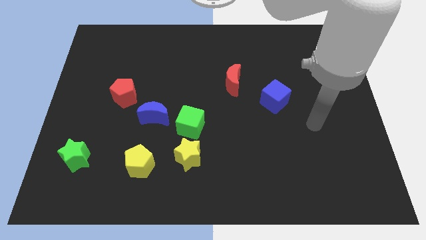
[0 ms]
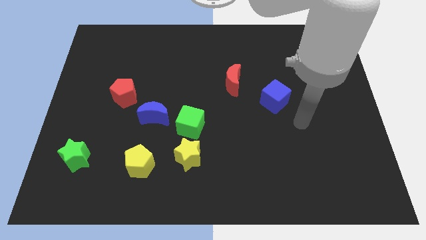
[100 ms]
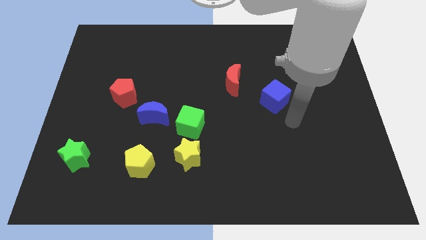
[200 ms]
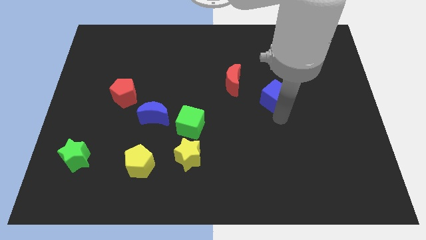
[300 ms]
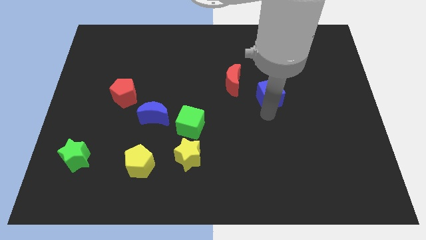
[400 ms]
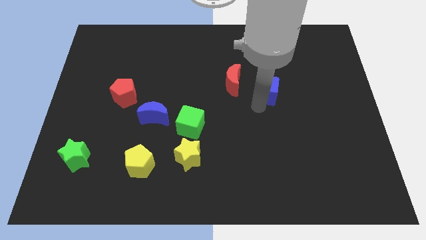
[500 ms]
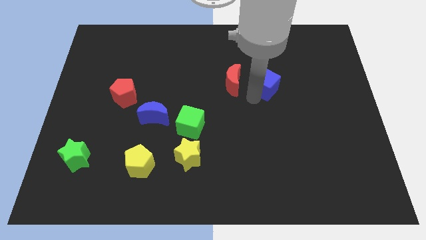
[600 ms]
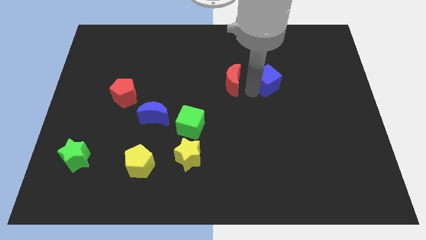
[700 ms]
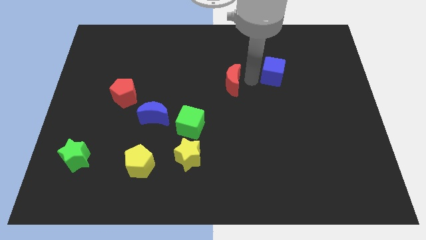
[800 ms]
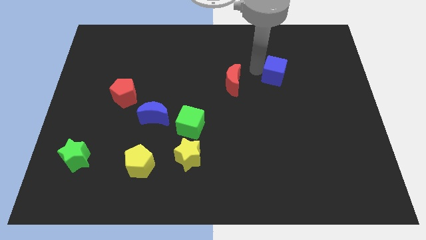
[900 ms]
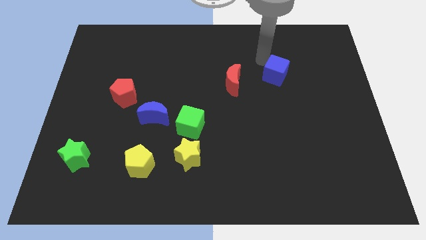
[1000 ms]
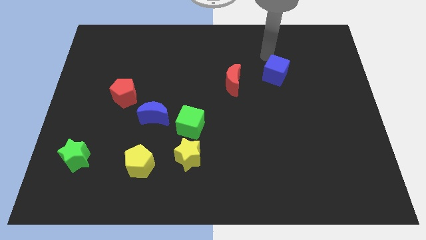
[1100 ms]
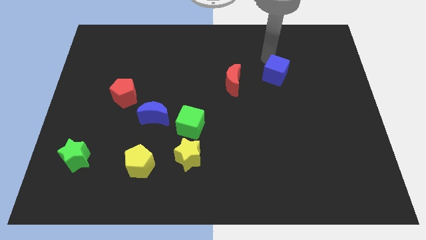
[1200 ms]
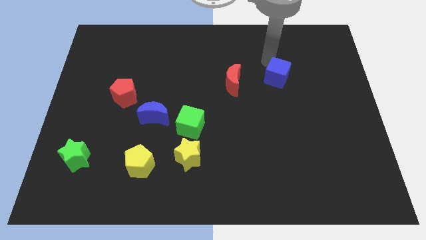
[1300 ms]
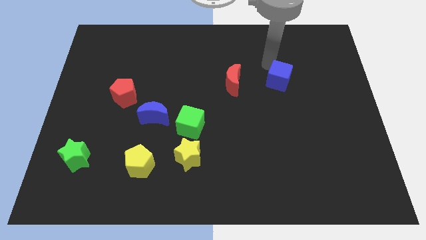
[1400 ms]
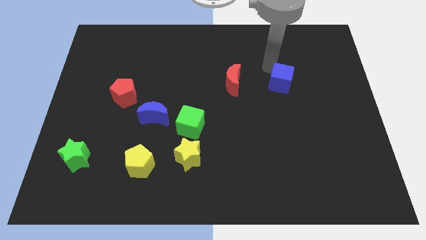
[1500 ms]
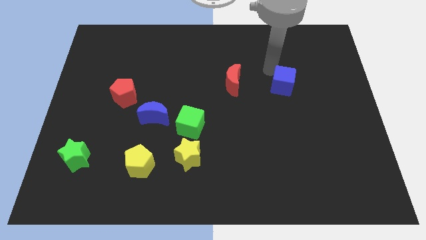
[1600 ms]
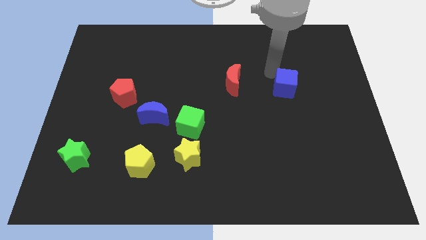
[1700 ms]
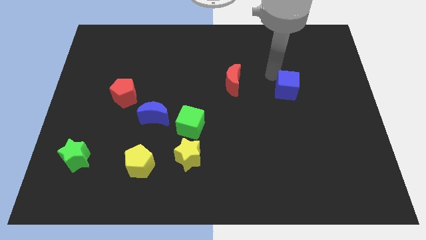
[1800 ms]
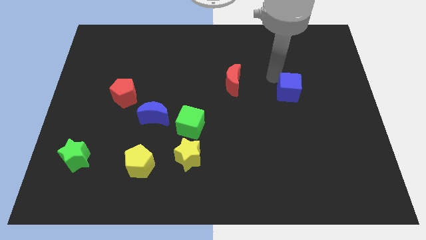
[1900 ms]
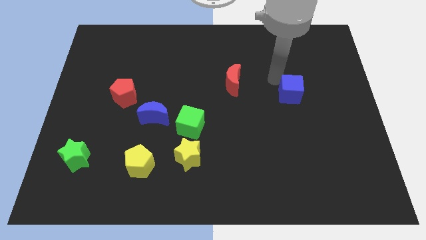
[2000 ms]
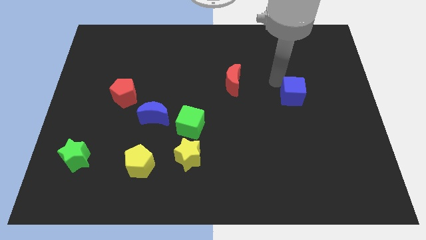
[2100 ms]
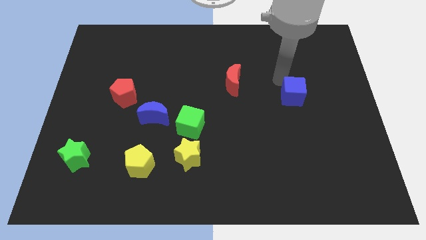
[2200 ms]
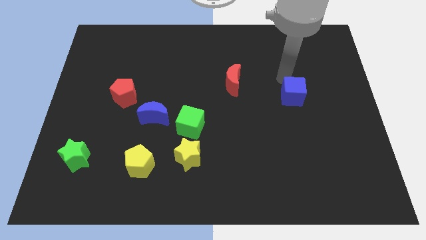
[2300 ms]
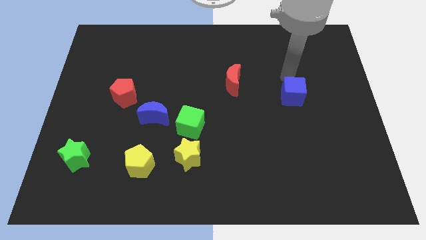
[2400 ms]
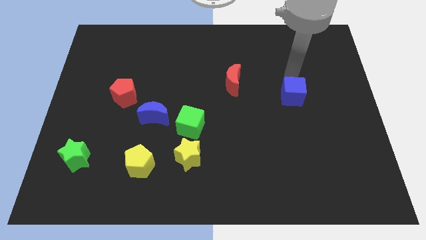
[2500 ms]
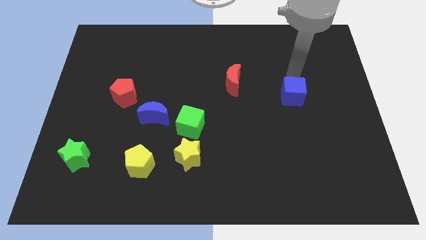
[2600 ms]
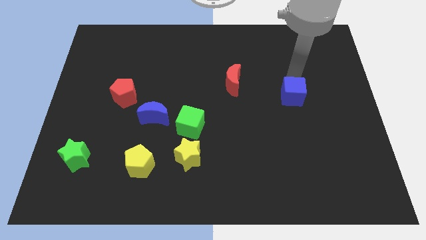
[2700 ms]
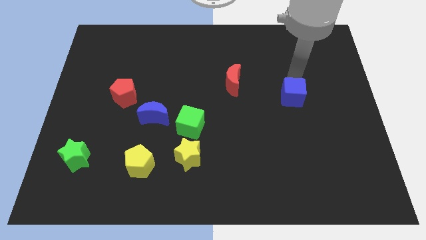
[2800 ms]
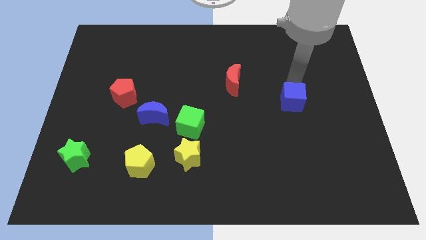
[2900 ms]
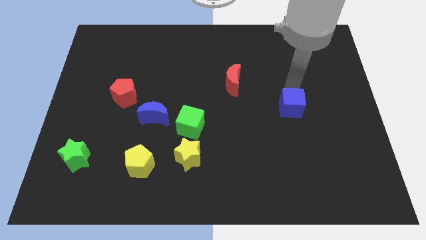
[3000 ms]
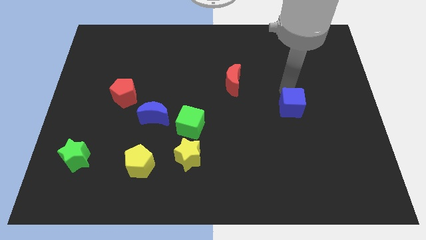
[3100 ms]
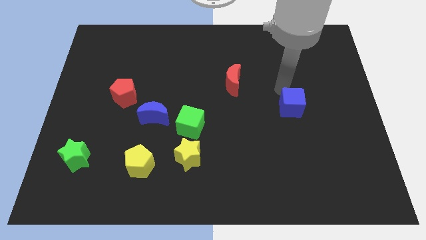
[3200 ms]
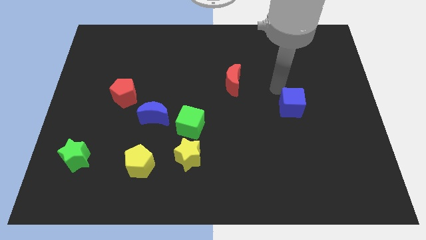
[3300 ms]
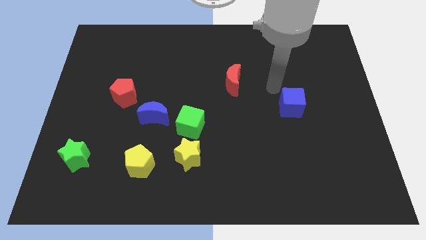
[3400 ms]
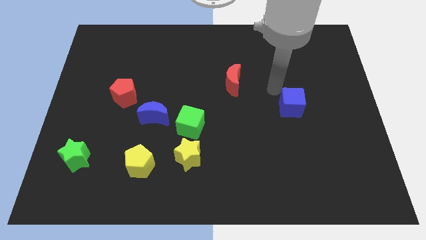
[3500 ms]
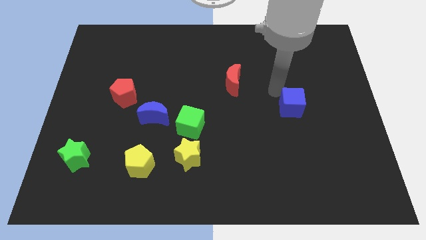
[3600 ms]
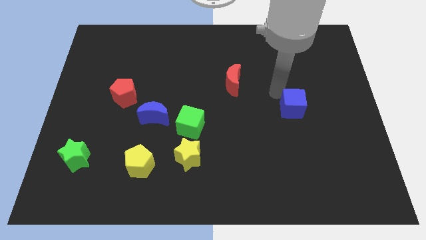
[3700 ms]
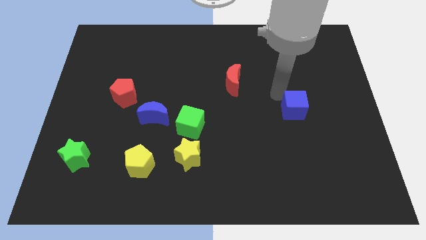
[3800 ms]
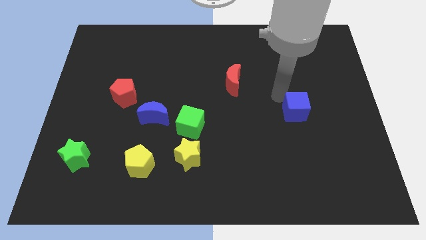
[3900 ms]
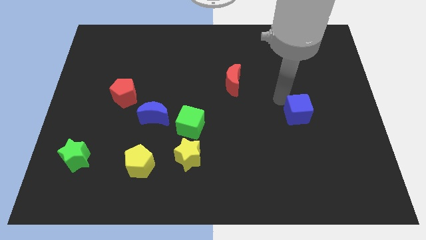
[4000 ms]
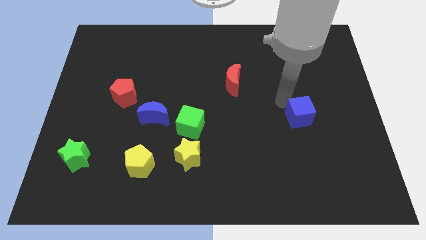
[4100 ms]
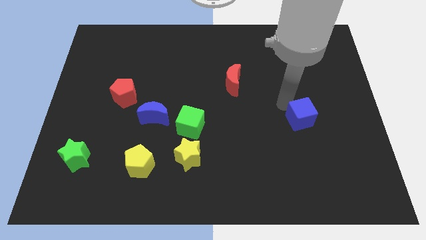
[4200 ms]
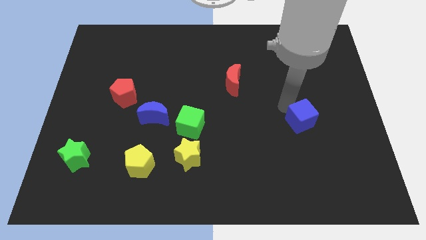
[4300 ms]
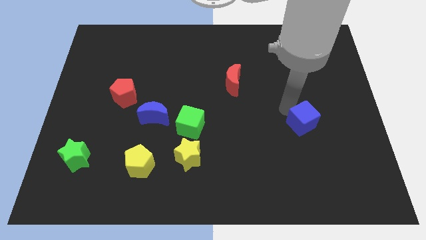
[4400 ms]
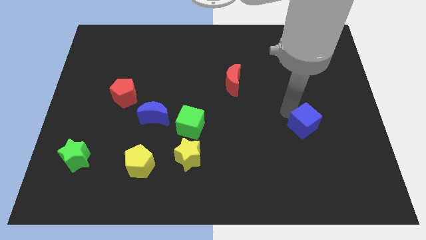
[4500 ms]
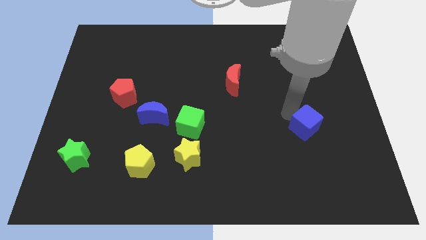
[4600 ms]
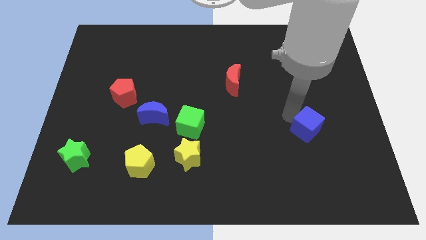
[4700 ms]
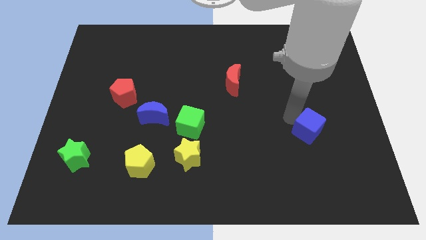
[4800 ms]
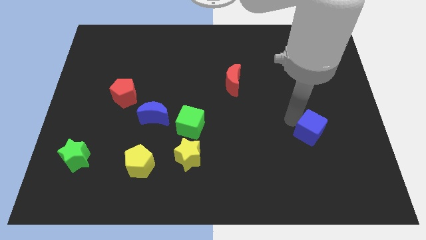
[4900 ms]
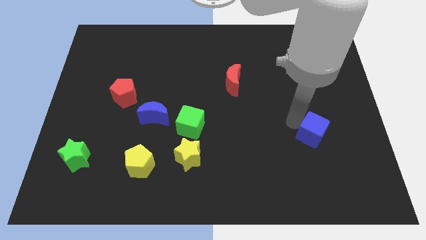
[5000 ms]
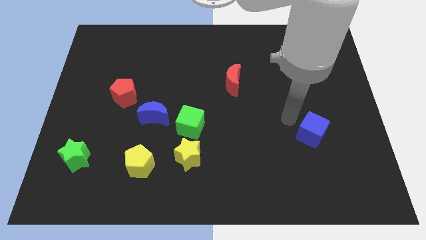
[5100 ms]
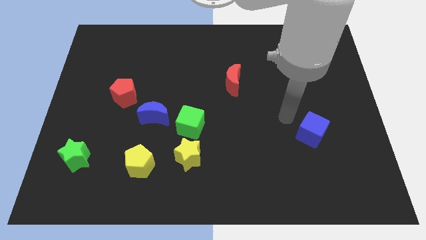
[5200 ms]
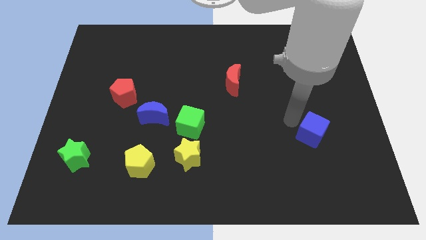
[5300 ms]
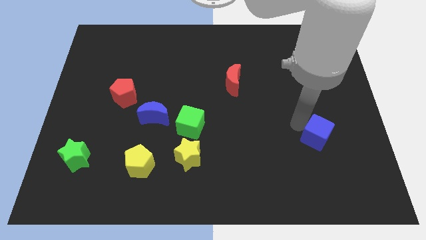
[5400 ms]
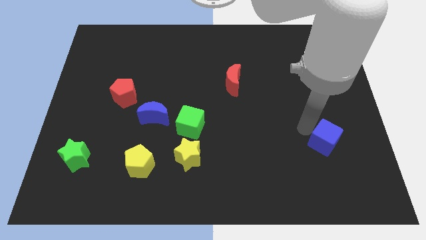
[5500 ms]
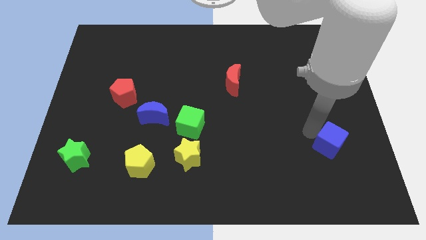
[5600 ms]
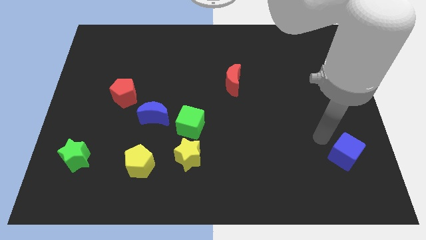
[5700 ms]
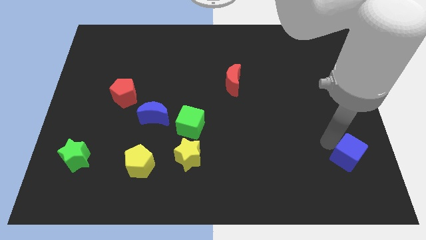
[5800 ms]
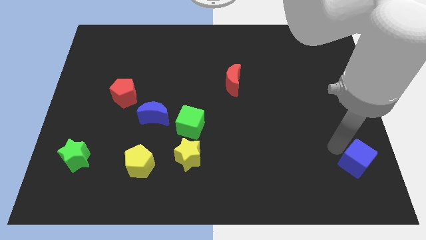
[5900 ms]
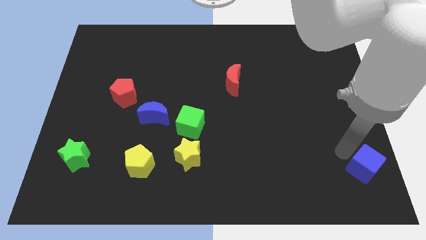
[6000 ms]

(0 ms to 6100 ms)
move the blue cube to the bottom right corner

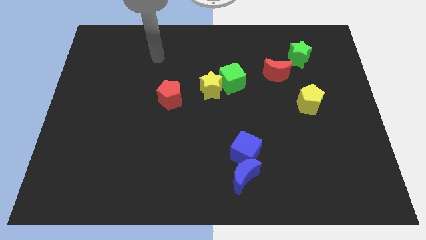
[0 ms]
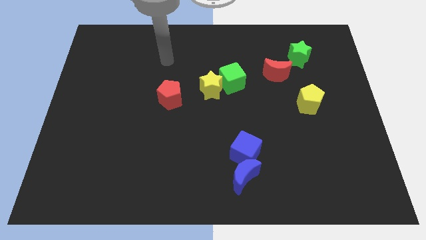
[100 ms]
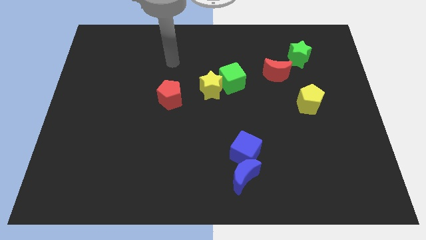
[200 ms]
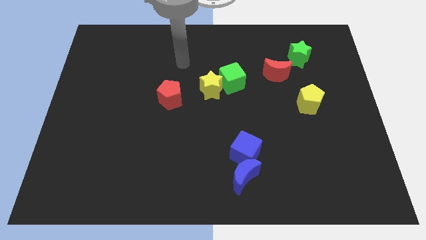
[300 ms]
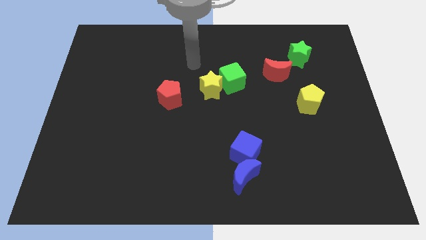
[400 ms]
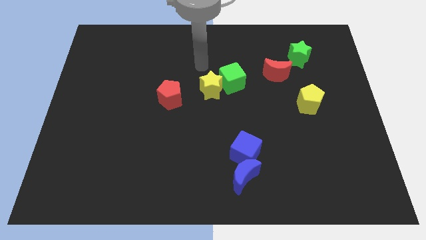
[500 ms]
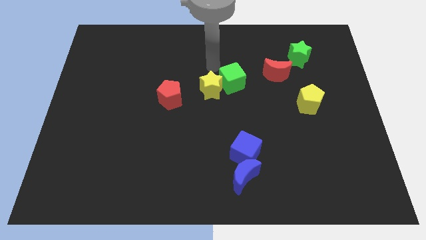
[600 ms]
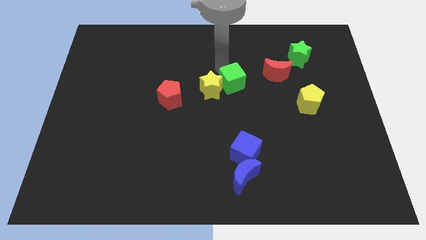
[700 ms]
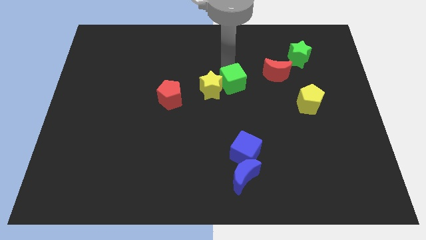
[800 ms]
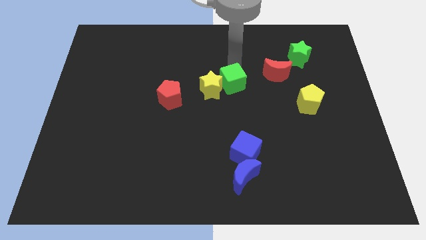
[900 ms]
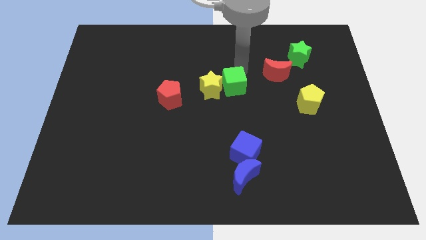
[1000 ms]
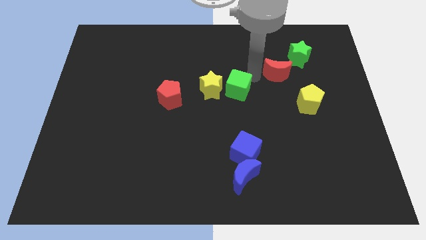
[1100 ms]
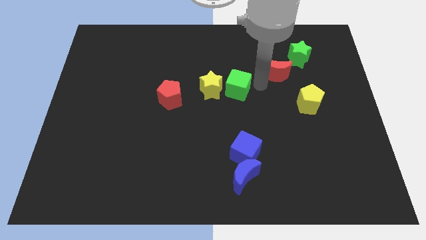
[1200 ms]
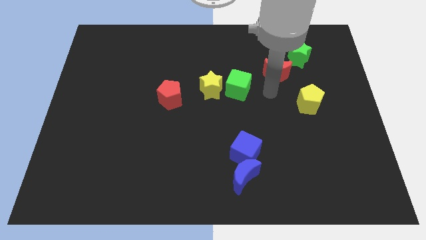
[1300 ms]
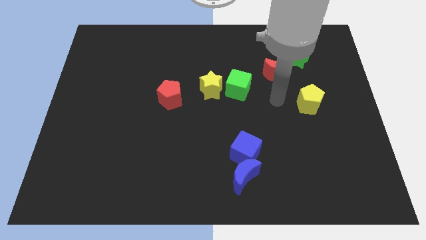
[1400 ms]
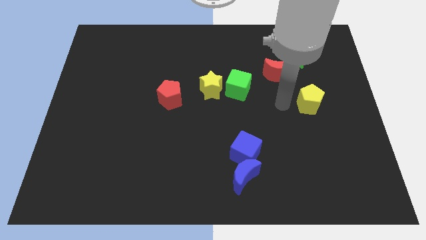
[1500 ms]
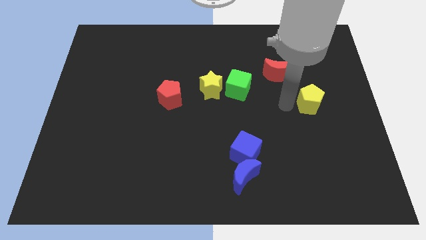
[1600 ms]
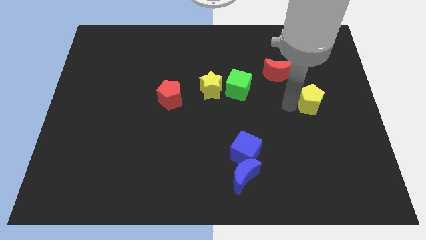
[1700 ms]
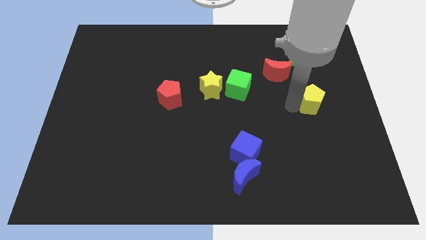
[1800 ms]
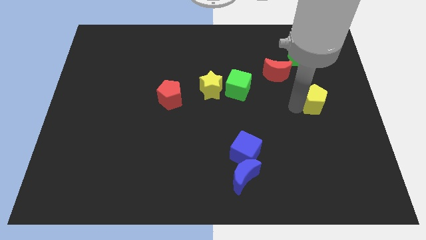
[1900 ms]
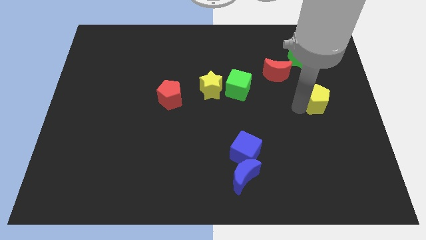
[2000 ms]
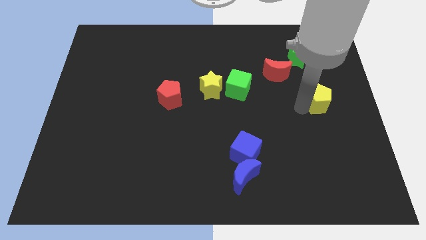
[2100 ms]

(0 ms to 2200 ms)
put the yellow pentagon to the center right
